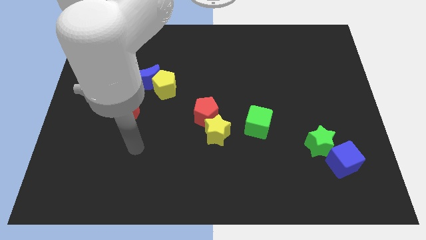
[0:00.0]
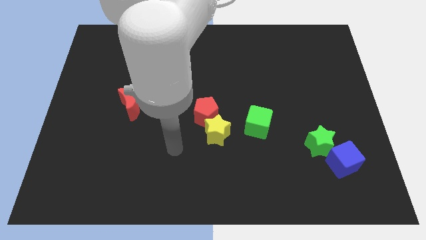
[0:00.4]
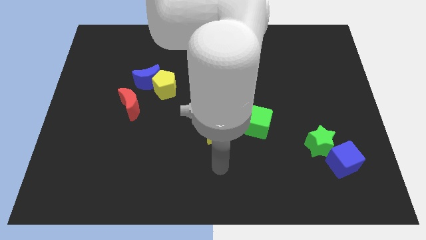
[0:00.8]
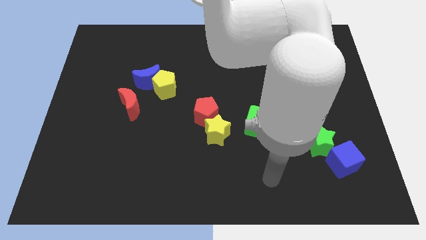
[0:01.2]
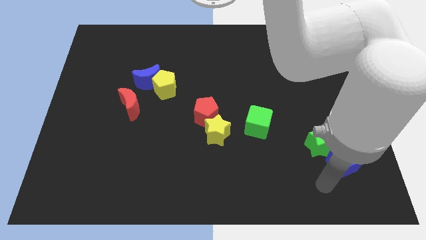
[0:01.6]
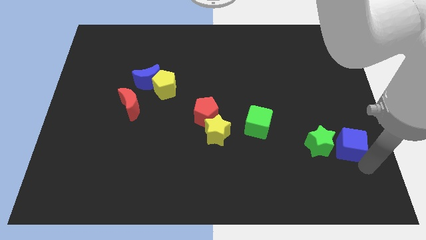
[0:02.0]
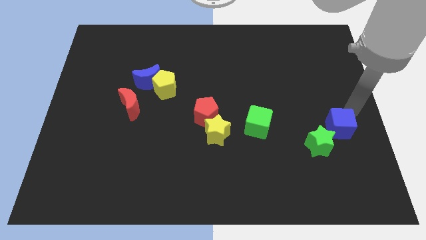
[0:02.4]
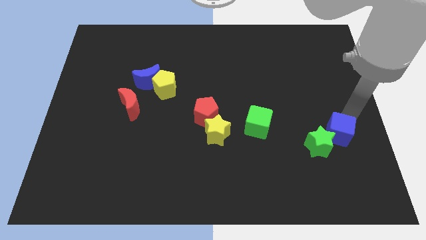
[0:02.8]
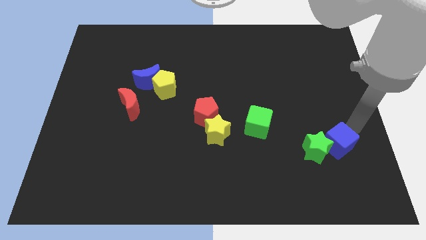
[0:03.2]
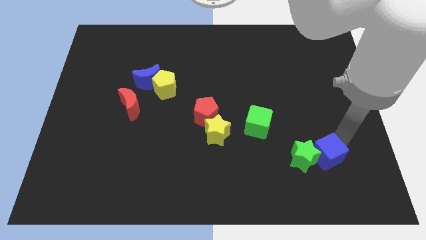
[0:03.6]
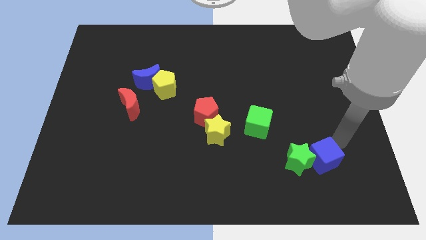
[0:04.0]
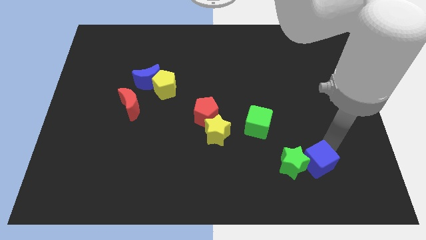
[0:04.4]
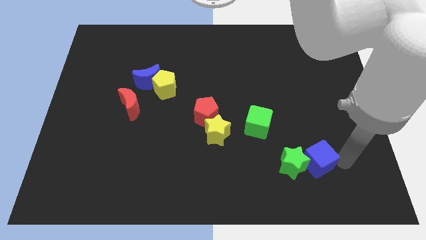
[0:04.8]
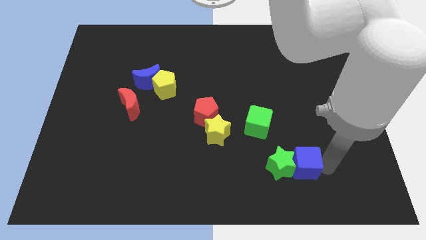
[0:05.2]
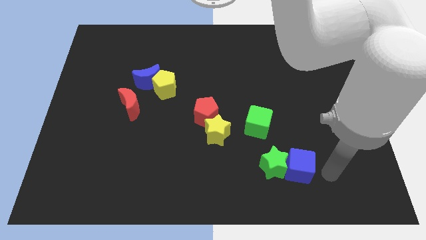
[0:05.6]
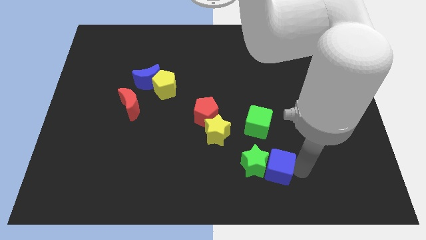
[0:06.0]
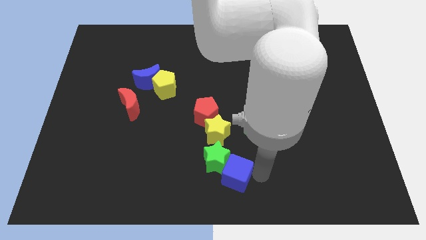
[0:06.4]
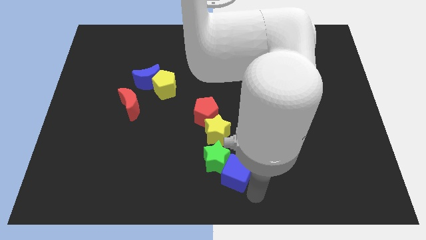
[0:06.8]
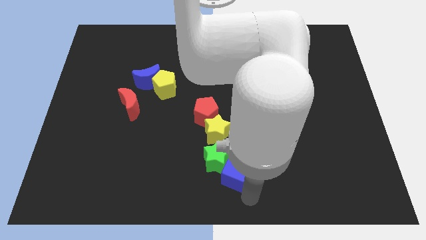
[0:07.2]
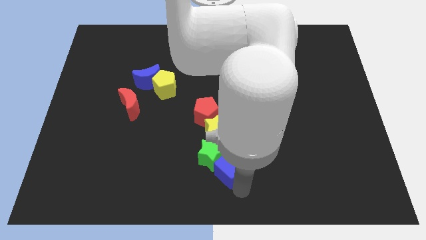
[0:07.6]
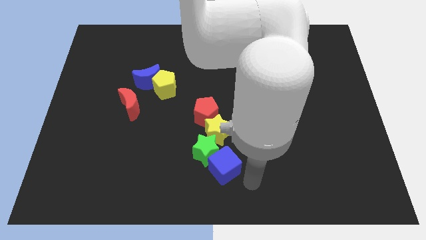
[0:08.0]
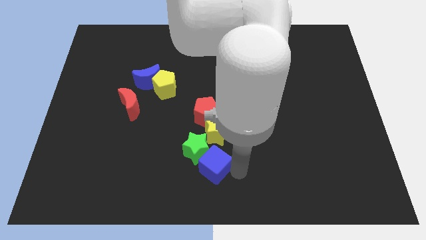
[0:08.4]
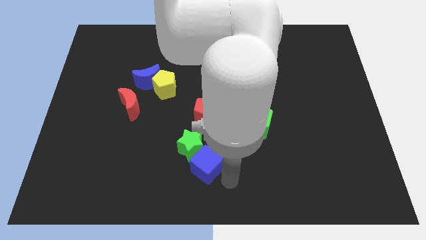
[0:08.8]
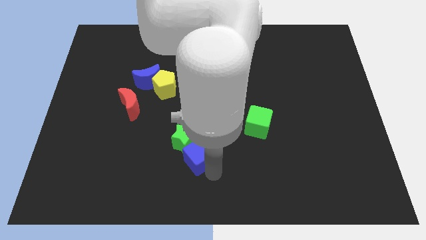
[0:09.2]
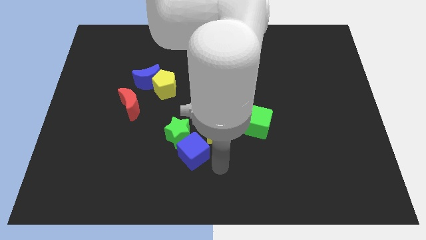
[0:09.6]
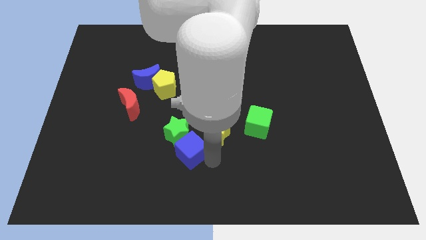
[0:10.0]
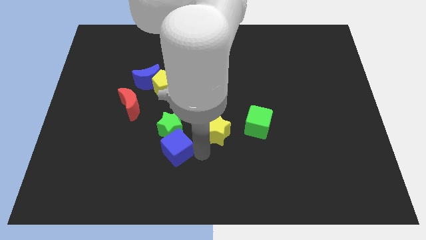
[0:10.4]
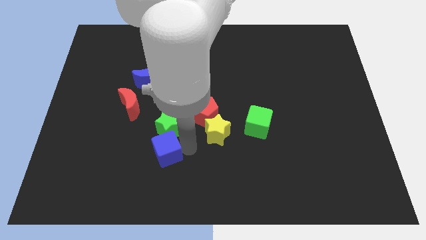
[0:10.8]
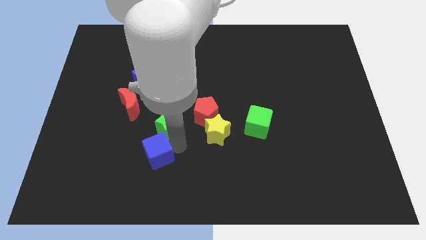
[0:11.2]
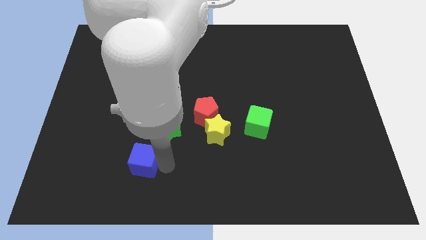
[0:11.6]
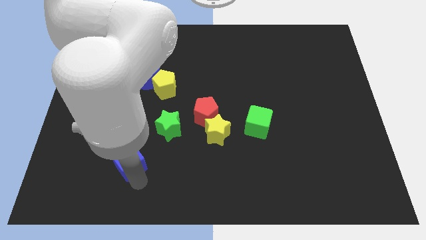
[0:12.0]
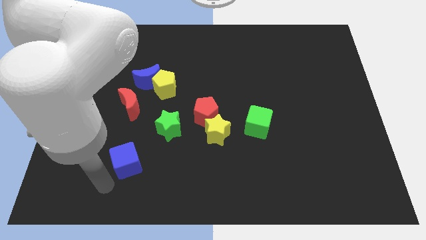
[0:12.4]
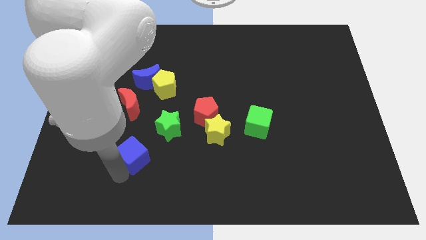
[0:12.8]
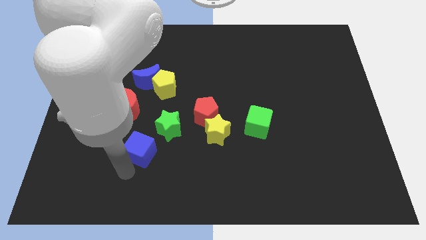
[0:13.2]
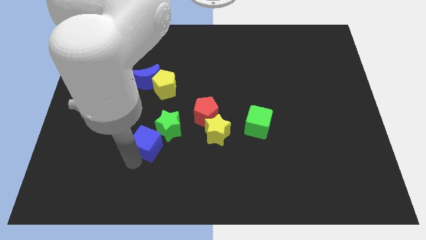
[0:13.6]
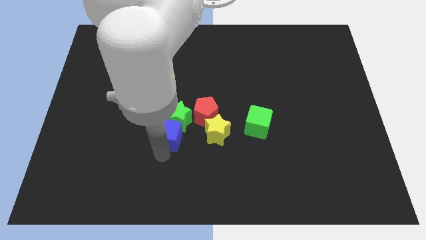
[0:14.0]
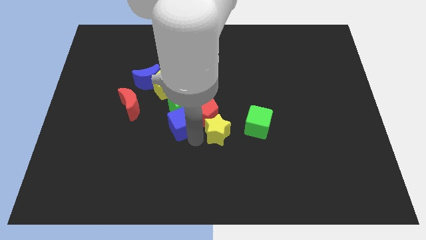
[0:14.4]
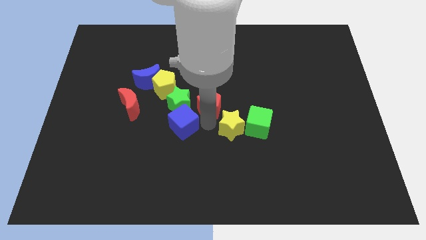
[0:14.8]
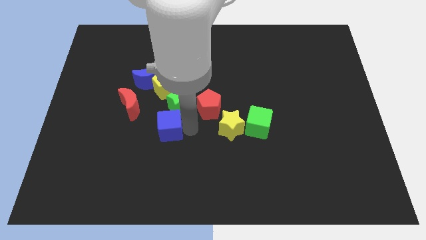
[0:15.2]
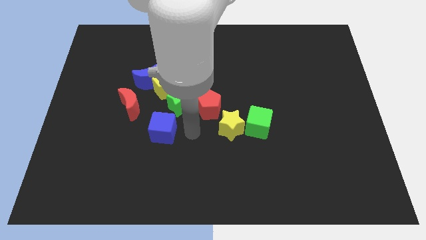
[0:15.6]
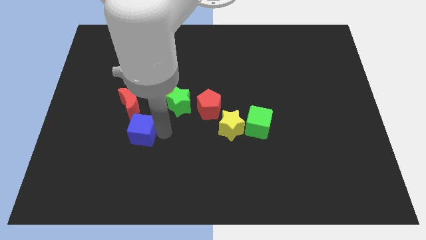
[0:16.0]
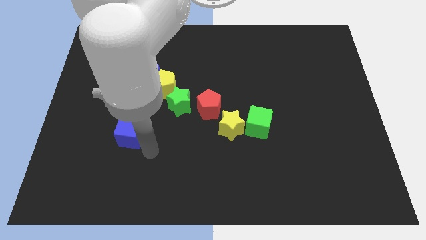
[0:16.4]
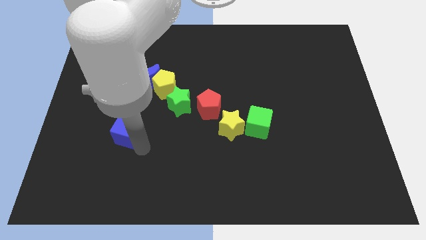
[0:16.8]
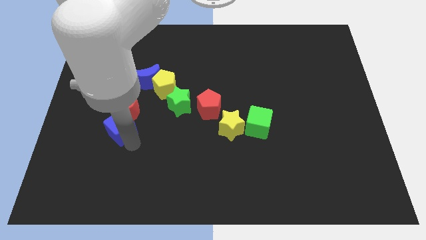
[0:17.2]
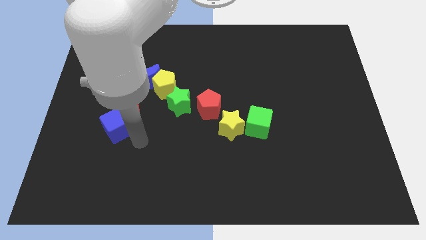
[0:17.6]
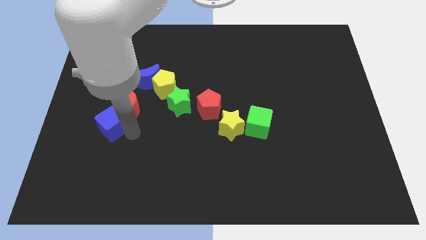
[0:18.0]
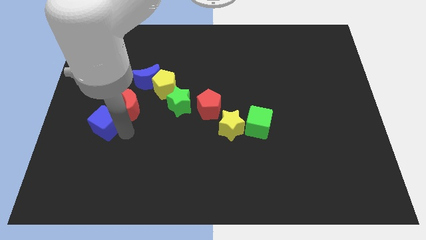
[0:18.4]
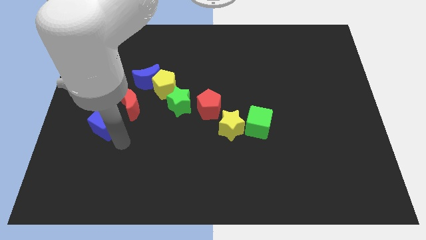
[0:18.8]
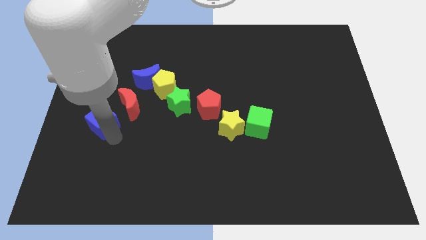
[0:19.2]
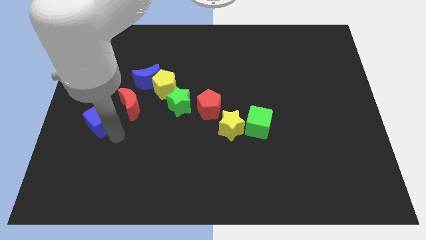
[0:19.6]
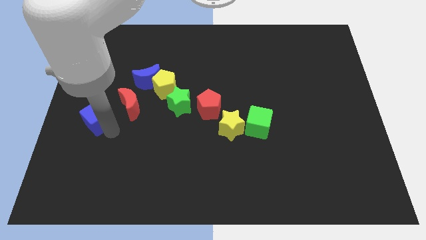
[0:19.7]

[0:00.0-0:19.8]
move the blue cube to the left side of the board

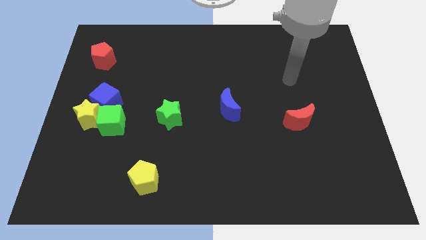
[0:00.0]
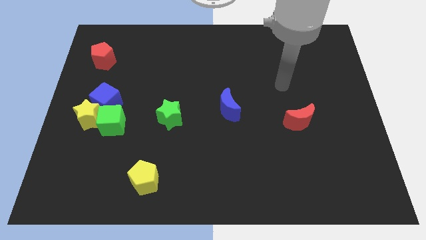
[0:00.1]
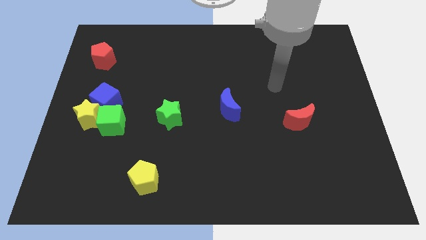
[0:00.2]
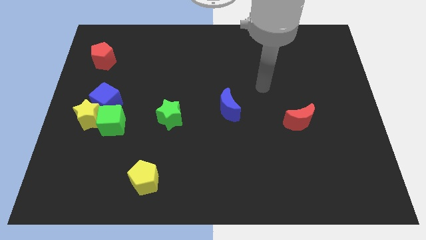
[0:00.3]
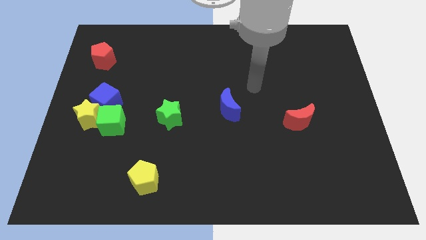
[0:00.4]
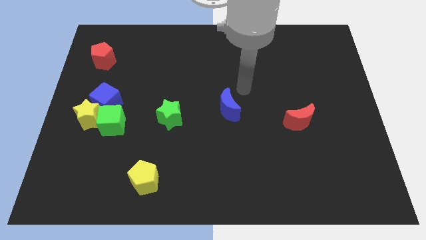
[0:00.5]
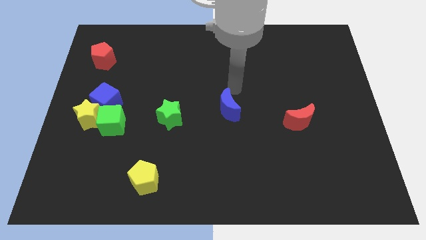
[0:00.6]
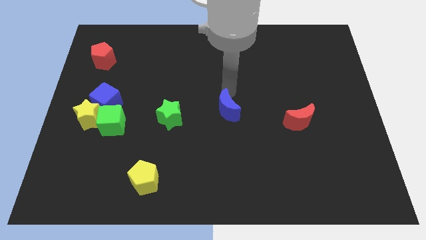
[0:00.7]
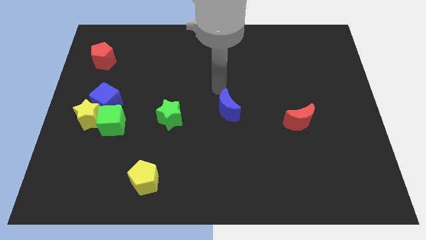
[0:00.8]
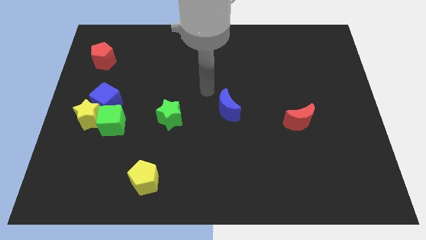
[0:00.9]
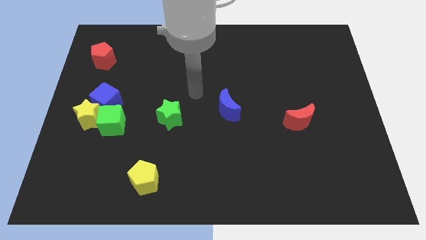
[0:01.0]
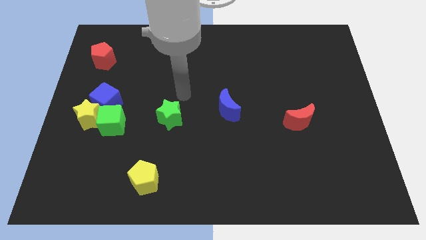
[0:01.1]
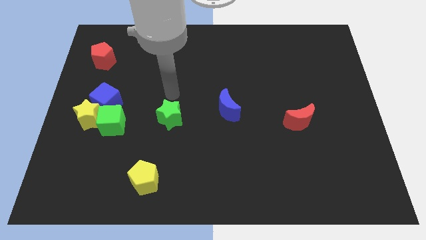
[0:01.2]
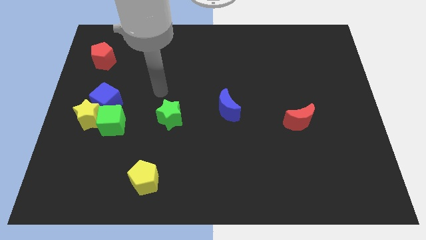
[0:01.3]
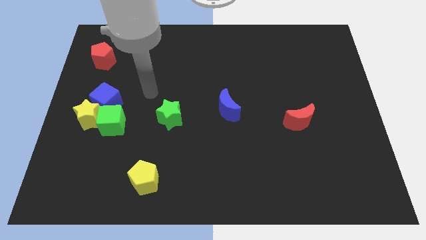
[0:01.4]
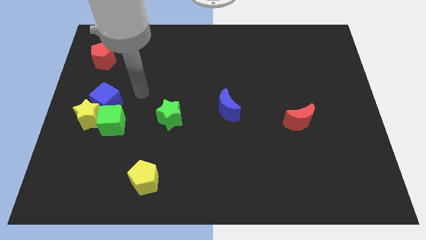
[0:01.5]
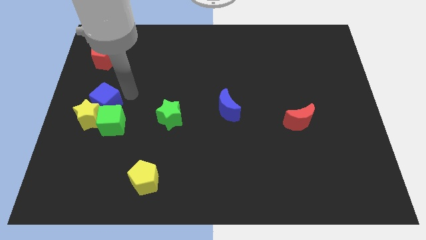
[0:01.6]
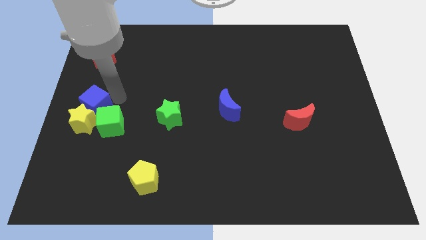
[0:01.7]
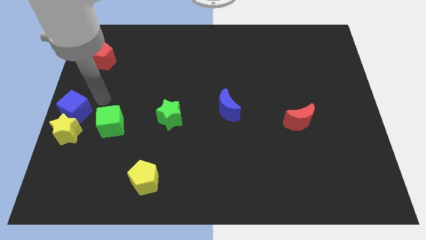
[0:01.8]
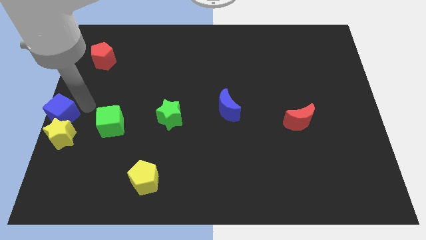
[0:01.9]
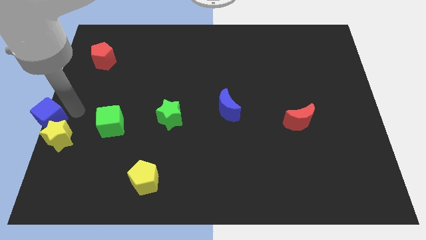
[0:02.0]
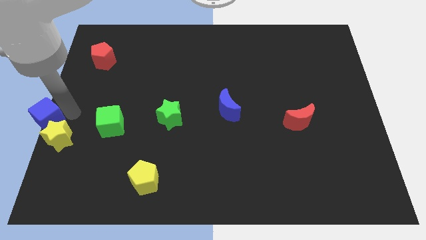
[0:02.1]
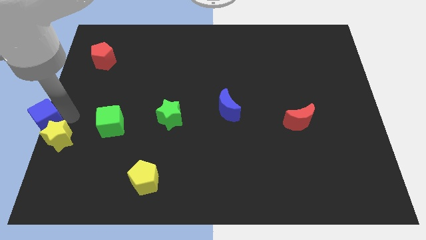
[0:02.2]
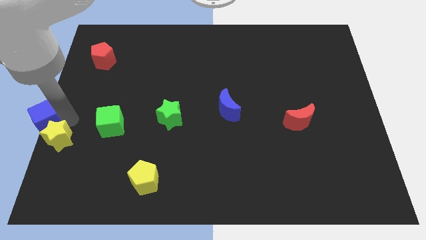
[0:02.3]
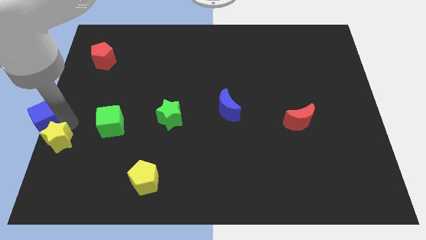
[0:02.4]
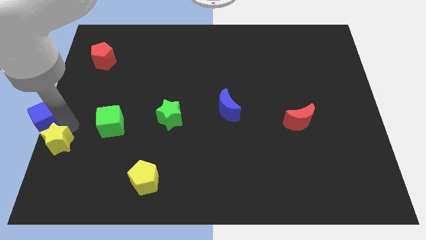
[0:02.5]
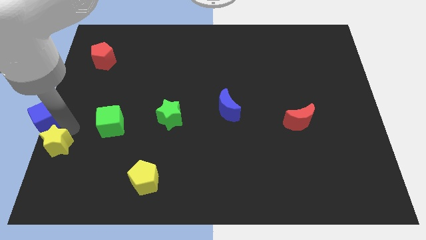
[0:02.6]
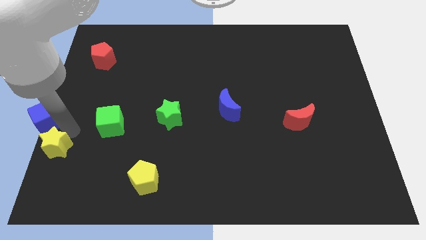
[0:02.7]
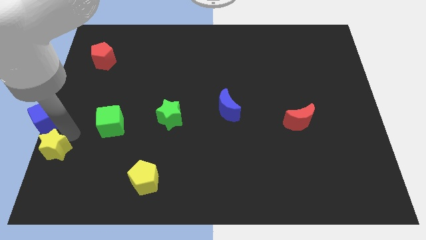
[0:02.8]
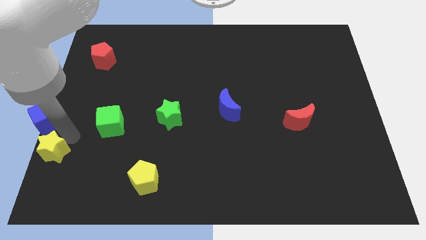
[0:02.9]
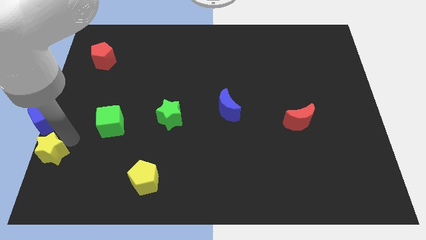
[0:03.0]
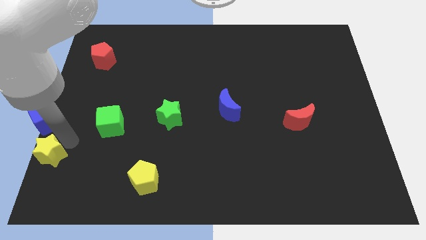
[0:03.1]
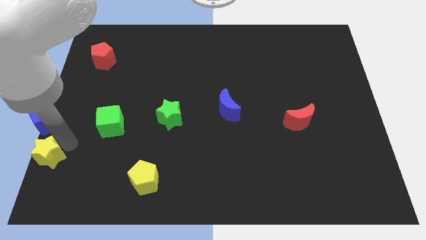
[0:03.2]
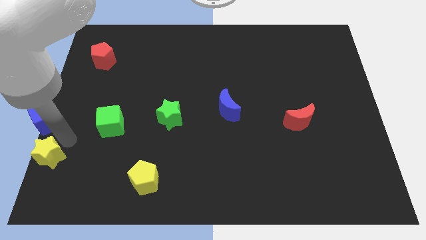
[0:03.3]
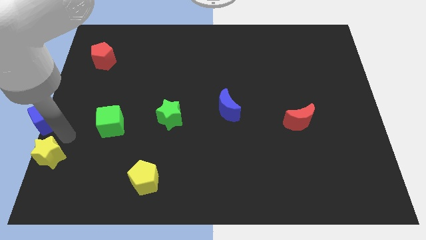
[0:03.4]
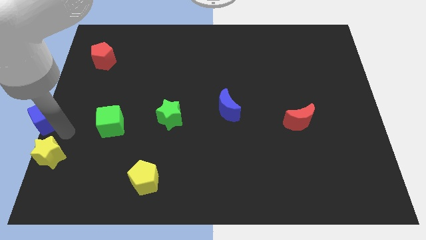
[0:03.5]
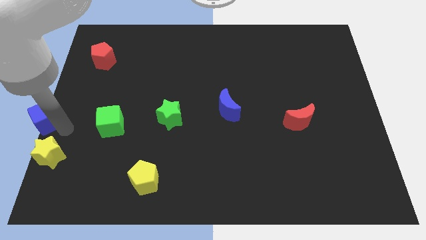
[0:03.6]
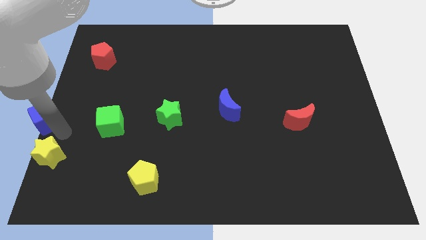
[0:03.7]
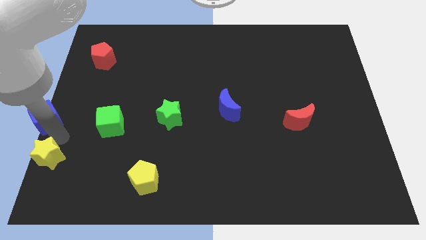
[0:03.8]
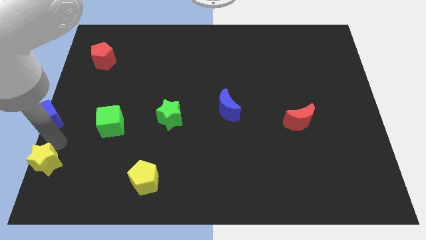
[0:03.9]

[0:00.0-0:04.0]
move the yellow star to the bottom left corner
